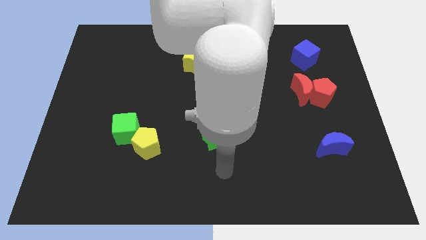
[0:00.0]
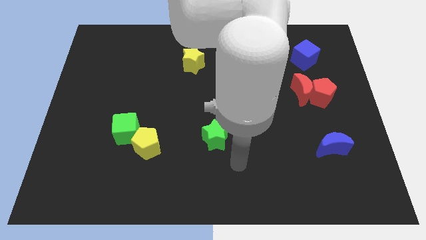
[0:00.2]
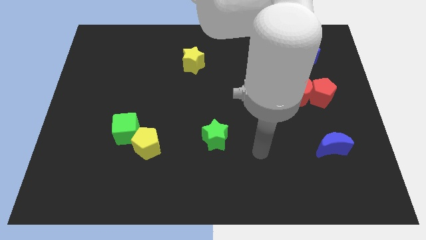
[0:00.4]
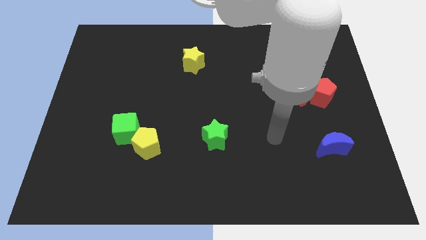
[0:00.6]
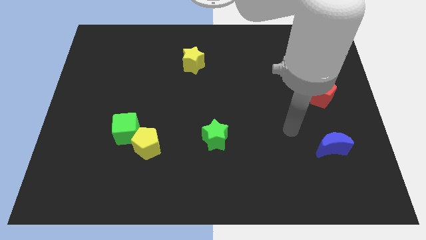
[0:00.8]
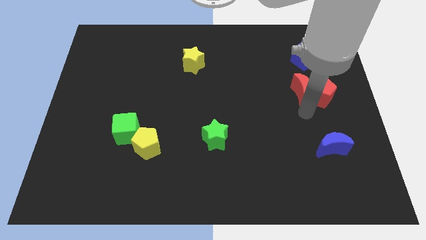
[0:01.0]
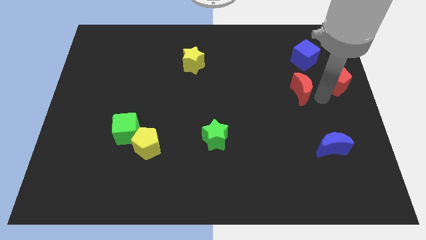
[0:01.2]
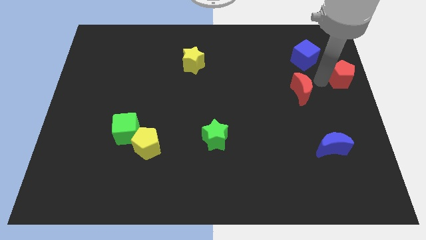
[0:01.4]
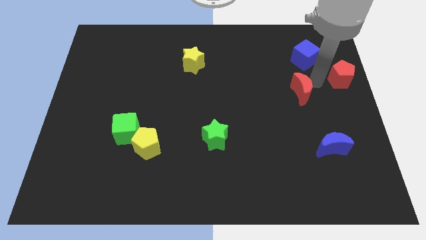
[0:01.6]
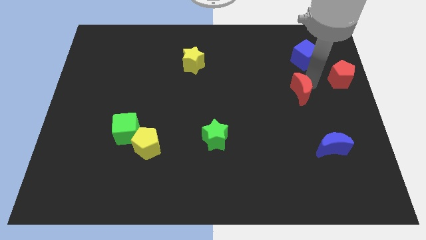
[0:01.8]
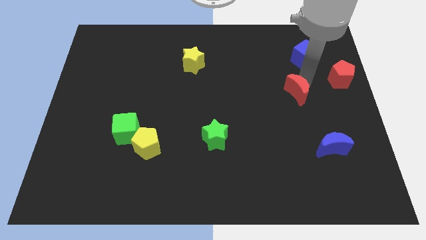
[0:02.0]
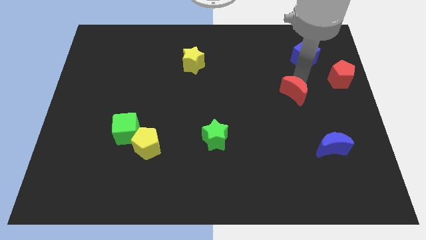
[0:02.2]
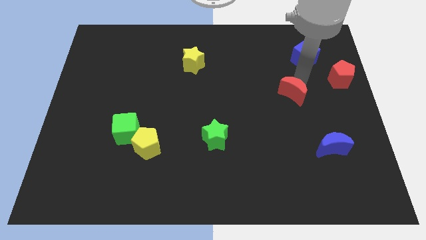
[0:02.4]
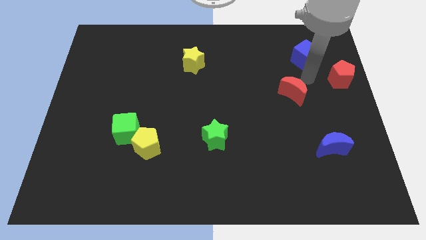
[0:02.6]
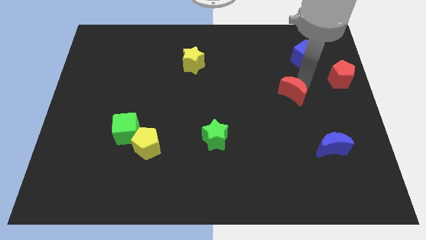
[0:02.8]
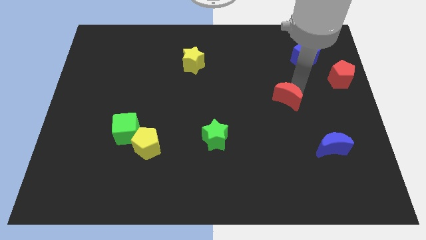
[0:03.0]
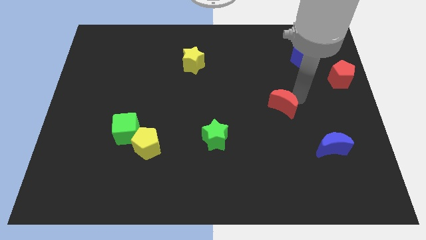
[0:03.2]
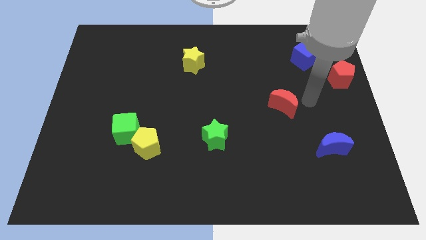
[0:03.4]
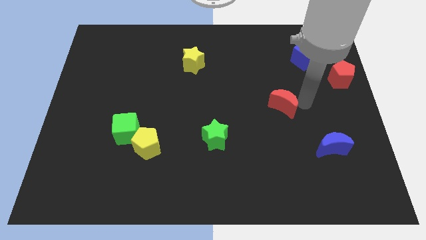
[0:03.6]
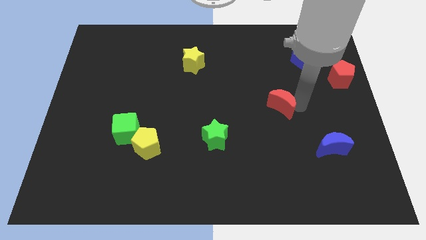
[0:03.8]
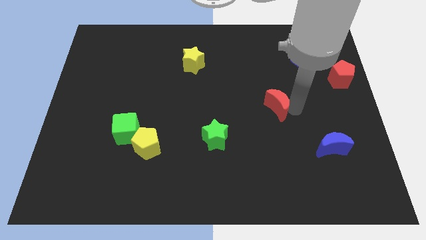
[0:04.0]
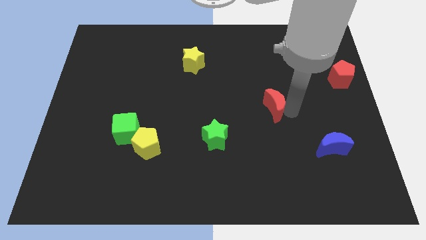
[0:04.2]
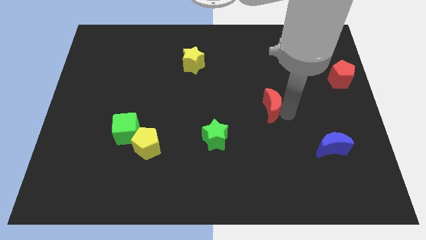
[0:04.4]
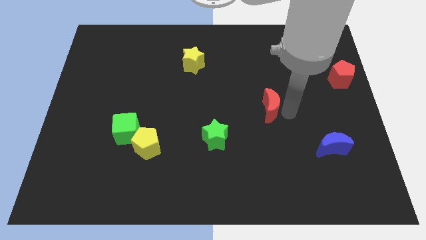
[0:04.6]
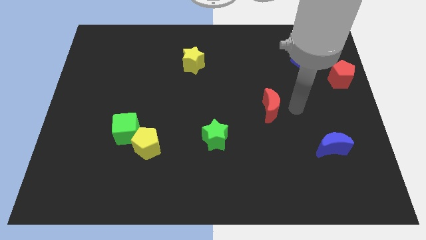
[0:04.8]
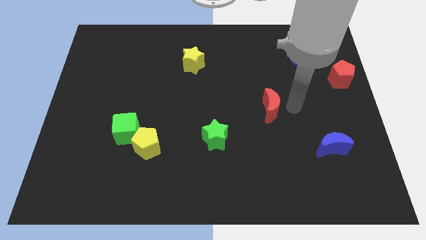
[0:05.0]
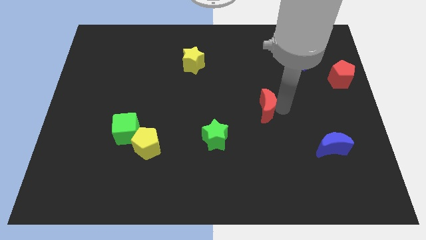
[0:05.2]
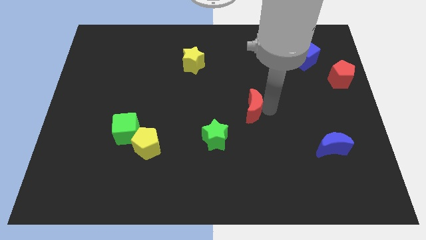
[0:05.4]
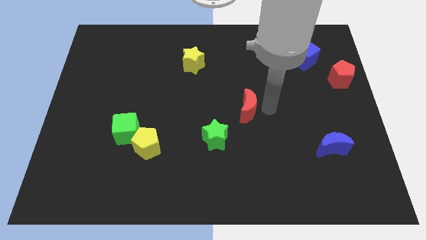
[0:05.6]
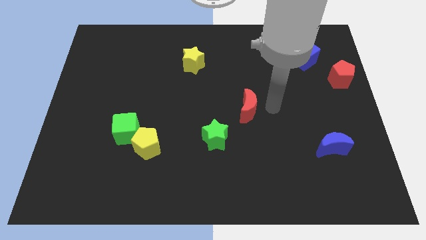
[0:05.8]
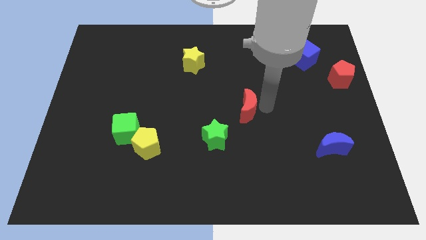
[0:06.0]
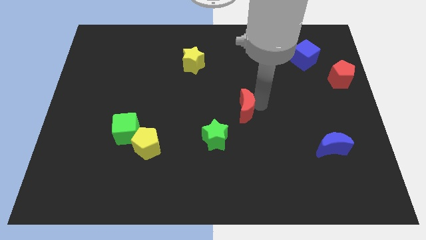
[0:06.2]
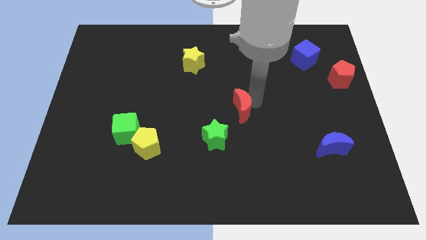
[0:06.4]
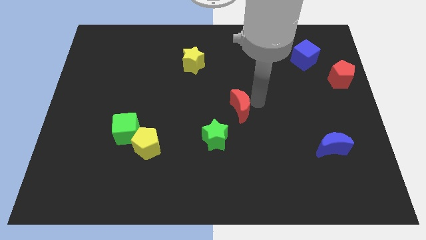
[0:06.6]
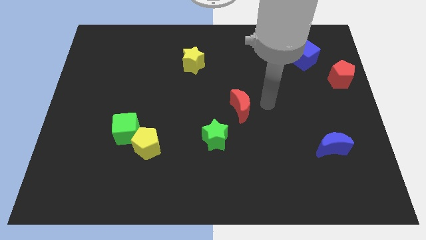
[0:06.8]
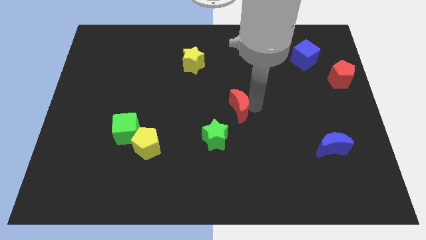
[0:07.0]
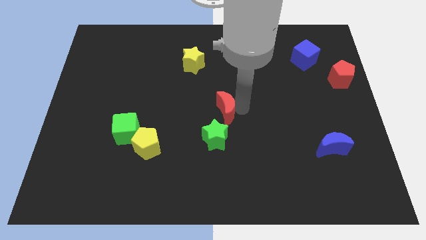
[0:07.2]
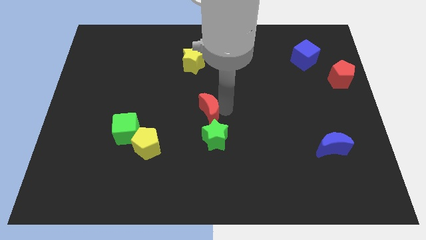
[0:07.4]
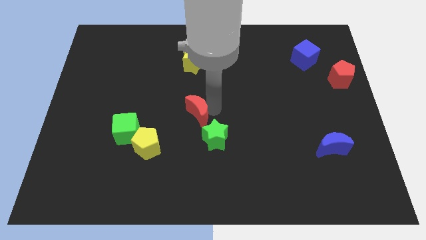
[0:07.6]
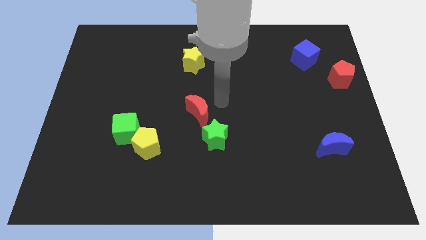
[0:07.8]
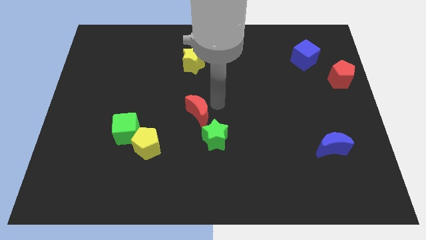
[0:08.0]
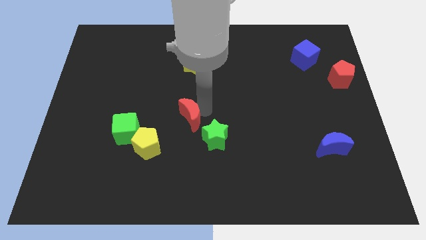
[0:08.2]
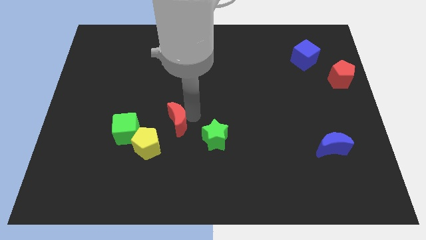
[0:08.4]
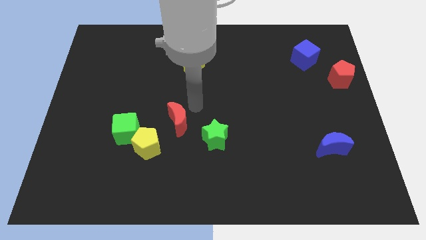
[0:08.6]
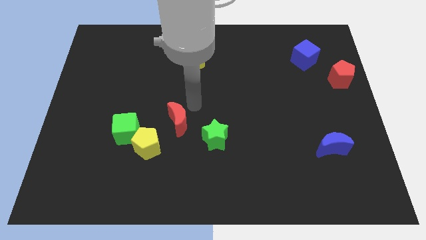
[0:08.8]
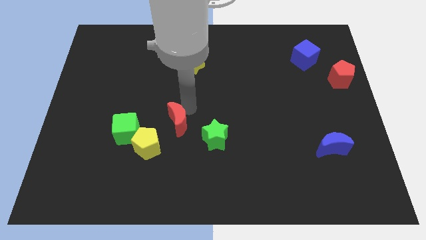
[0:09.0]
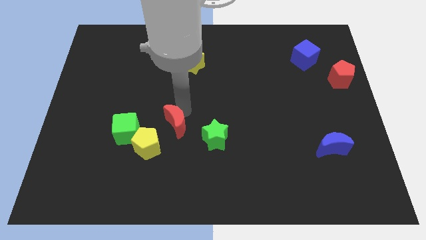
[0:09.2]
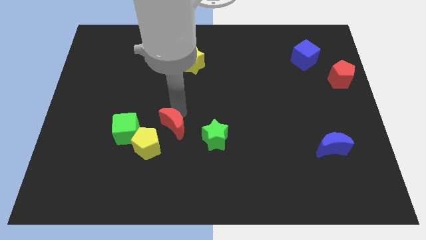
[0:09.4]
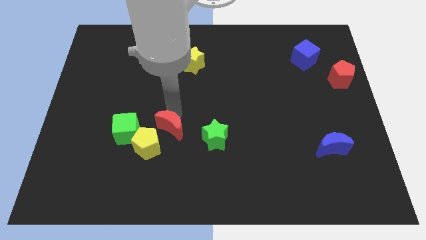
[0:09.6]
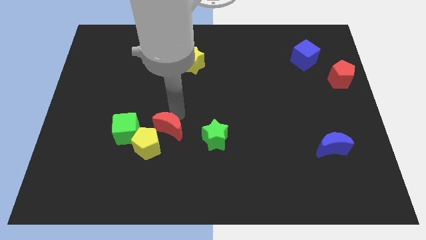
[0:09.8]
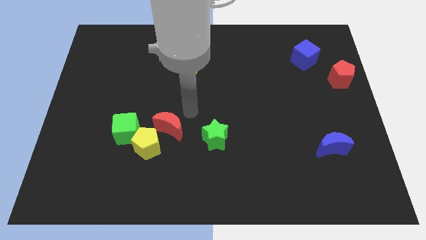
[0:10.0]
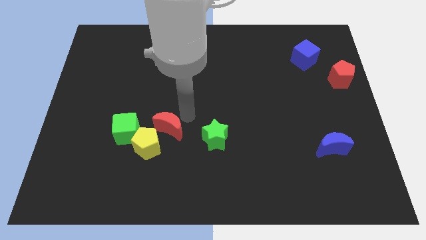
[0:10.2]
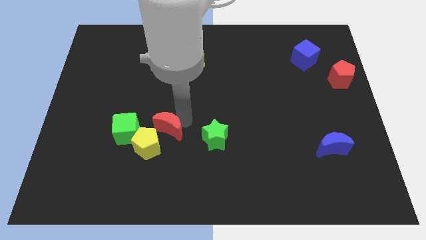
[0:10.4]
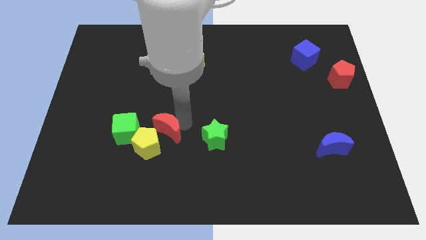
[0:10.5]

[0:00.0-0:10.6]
move the red moon towards the yellow pentagon

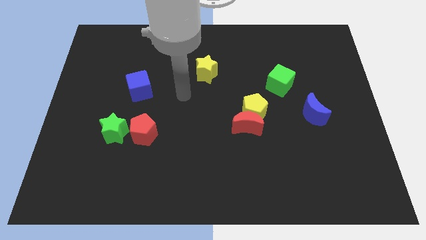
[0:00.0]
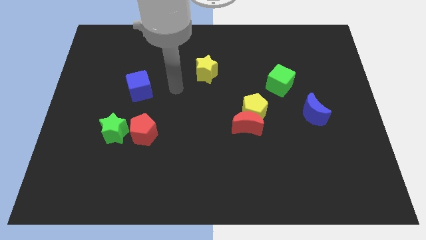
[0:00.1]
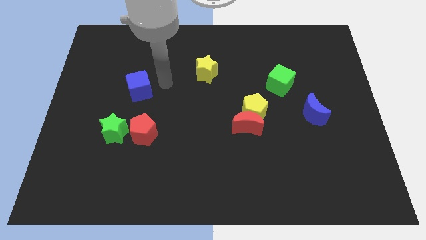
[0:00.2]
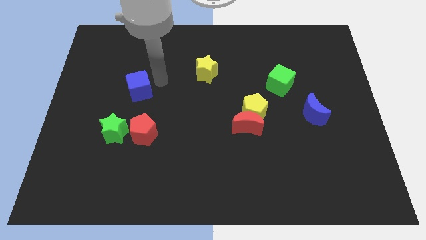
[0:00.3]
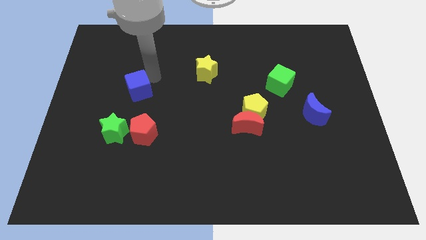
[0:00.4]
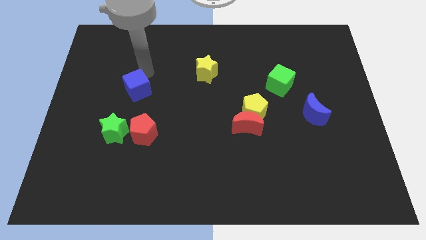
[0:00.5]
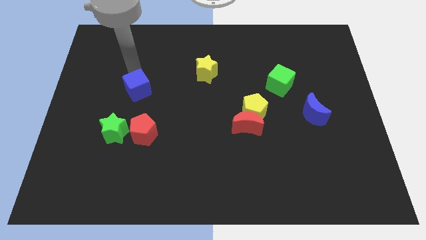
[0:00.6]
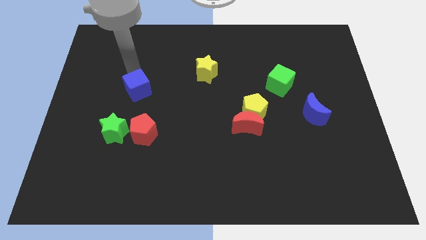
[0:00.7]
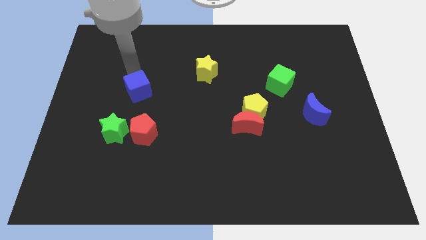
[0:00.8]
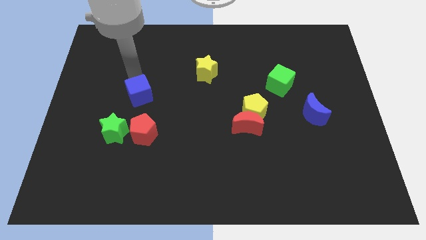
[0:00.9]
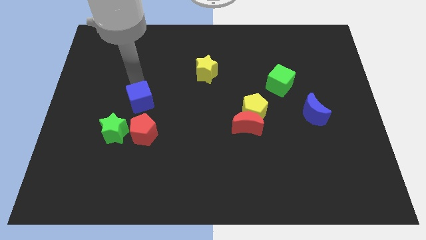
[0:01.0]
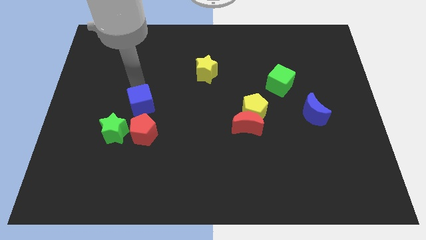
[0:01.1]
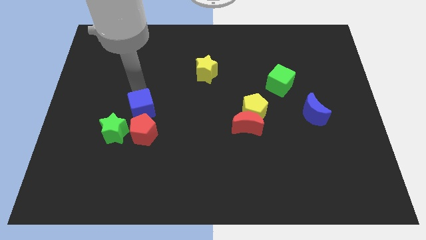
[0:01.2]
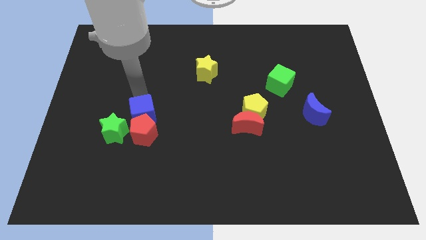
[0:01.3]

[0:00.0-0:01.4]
put the blue cube close to the red pentagon
